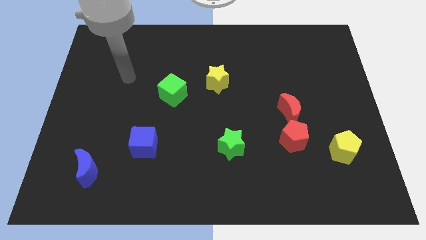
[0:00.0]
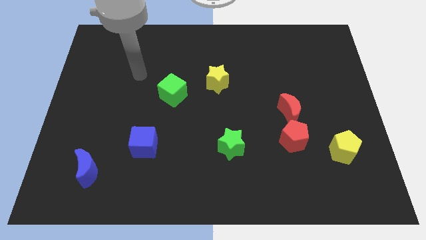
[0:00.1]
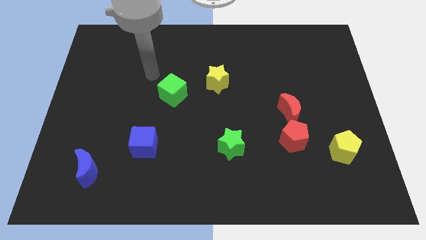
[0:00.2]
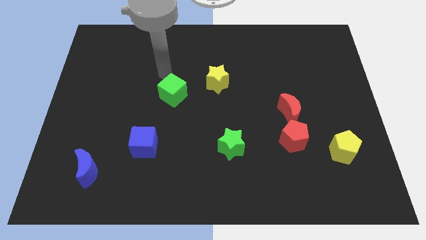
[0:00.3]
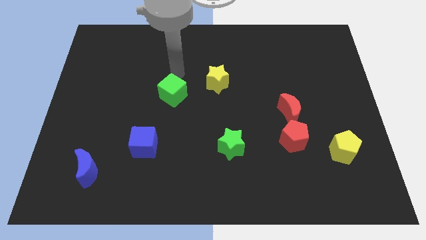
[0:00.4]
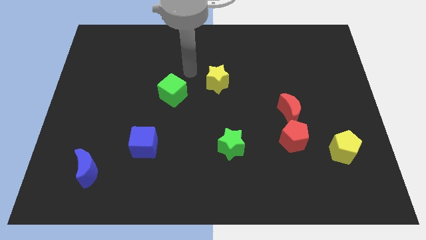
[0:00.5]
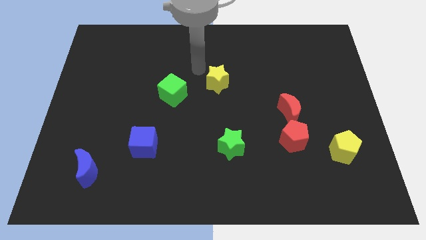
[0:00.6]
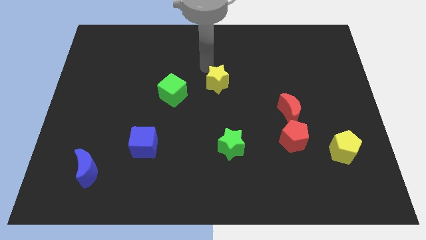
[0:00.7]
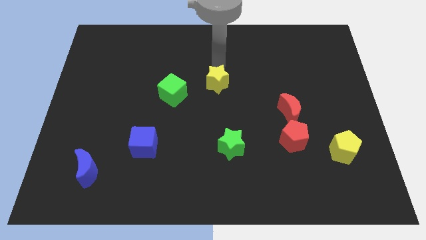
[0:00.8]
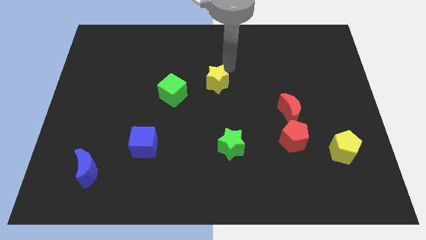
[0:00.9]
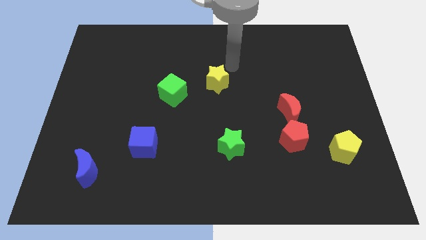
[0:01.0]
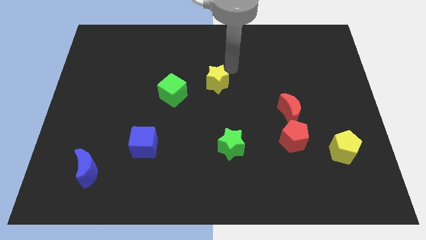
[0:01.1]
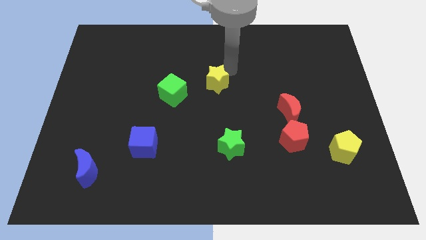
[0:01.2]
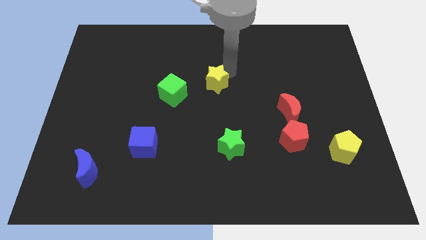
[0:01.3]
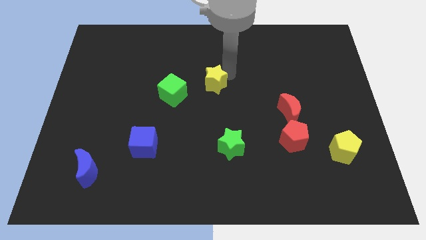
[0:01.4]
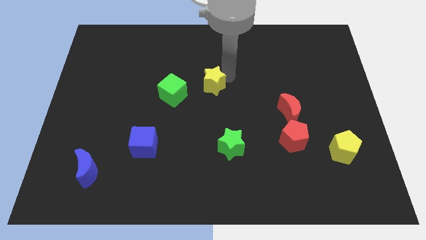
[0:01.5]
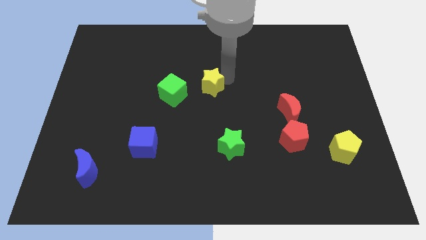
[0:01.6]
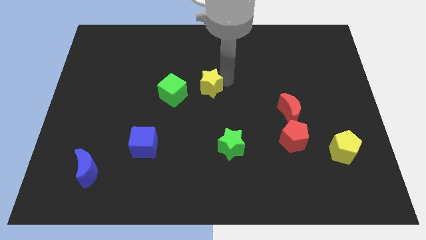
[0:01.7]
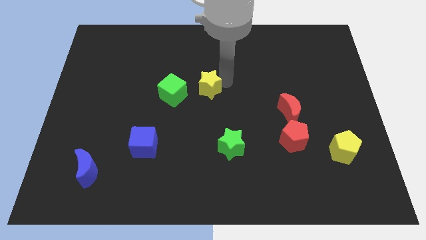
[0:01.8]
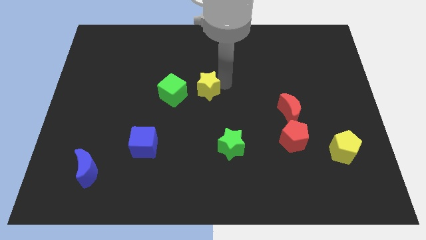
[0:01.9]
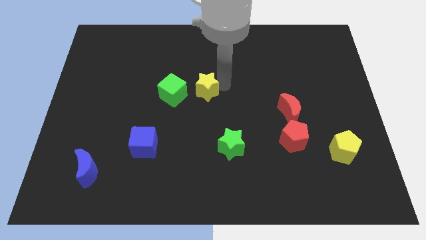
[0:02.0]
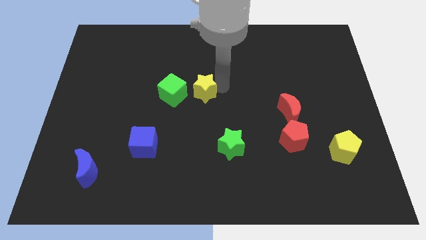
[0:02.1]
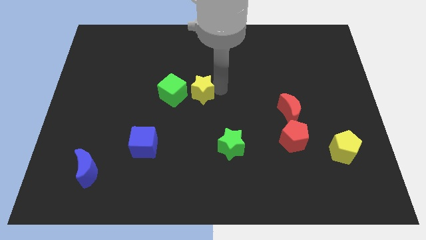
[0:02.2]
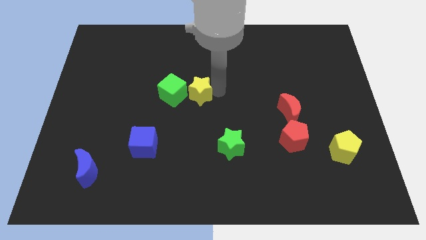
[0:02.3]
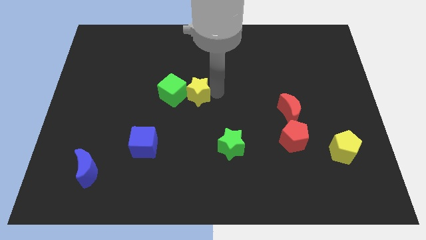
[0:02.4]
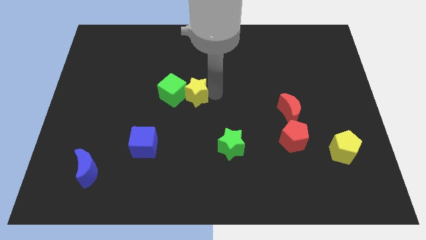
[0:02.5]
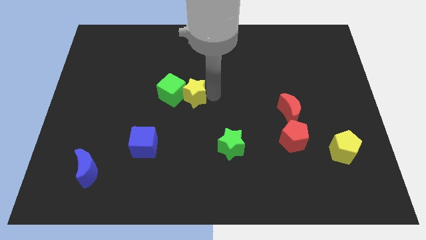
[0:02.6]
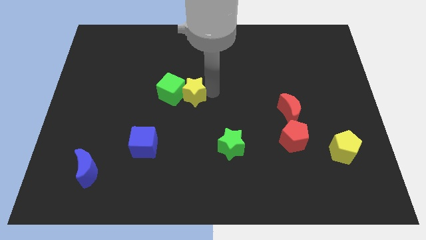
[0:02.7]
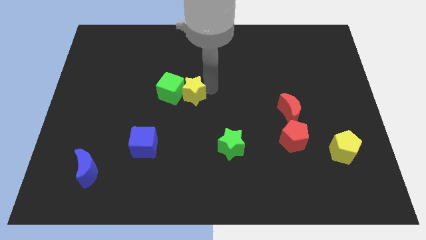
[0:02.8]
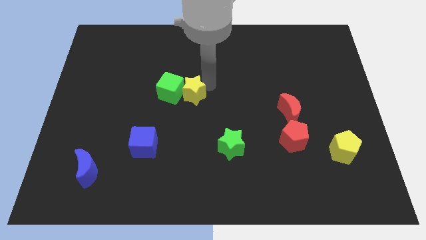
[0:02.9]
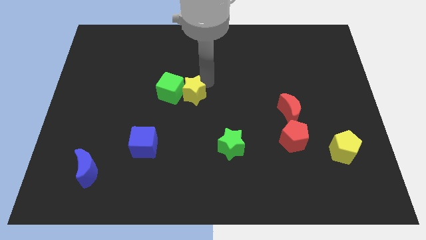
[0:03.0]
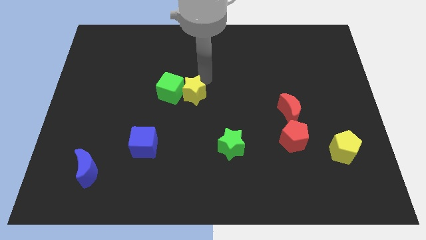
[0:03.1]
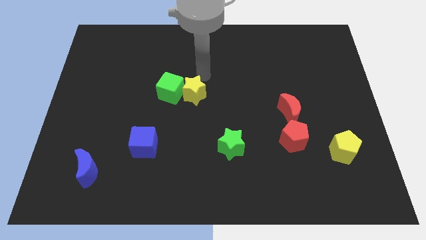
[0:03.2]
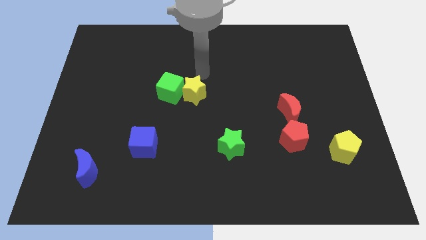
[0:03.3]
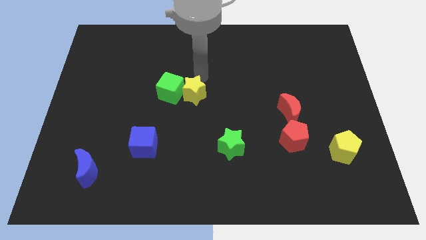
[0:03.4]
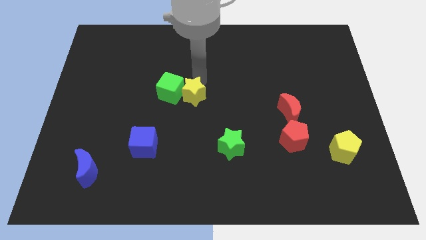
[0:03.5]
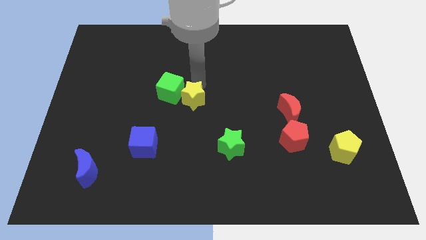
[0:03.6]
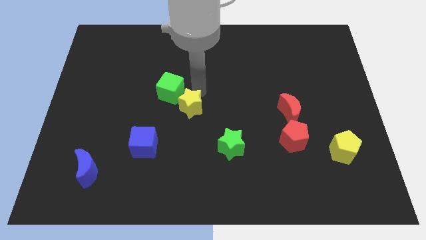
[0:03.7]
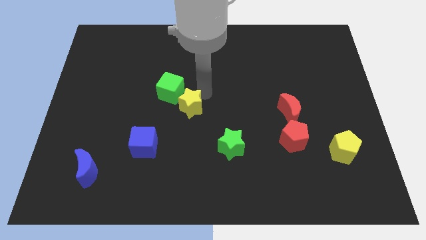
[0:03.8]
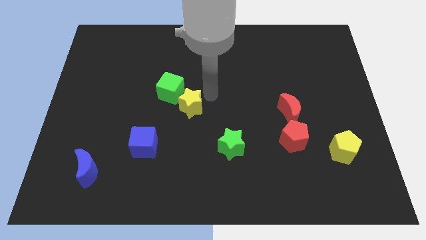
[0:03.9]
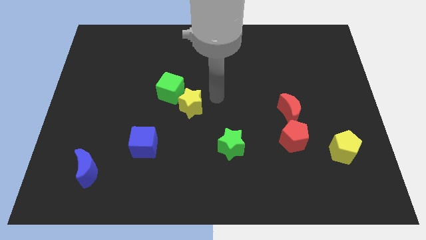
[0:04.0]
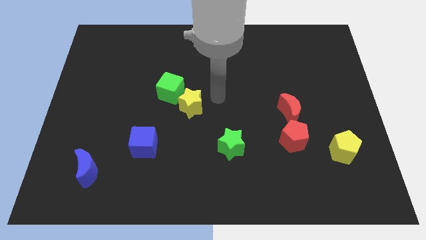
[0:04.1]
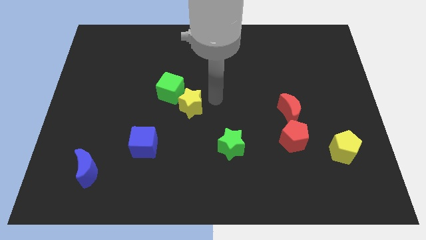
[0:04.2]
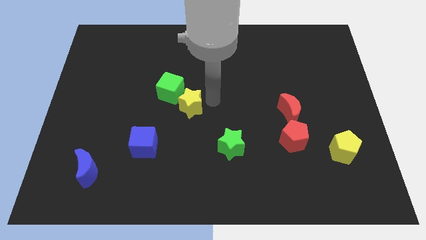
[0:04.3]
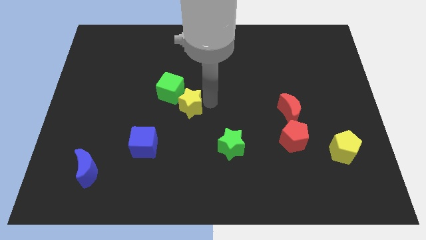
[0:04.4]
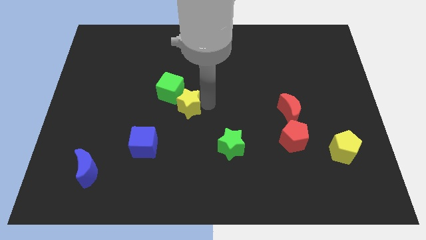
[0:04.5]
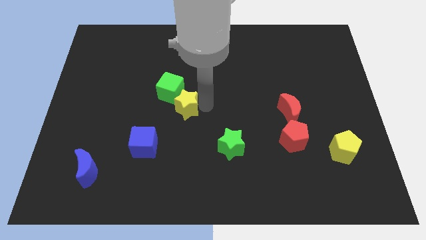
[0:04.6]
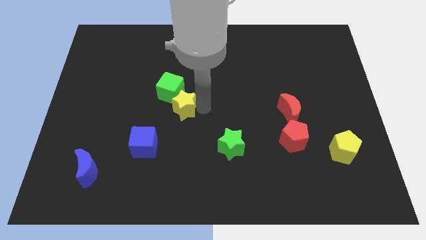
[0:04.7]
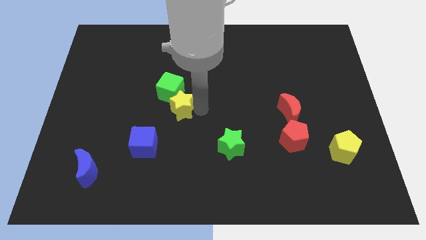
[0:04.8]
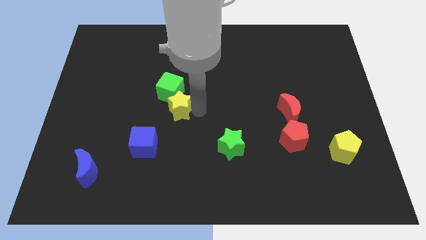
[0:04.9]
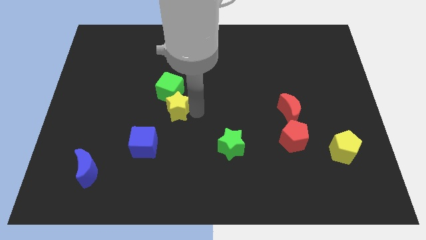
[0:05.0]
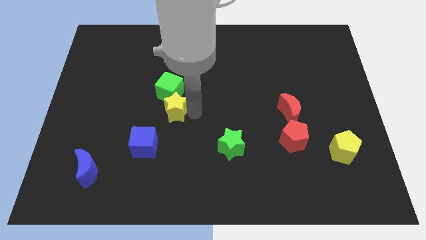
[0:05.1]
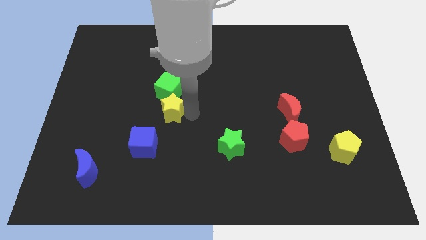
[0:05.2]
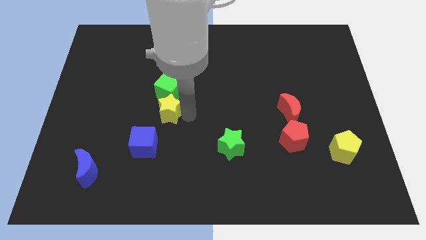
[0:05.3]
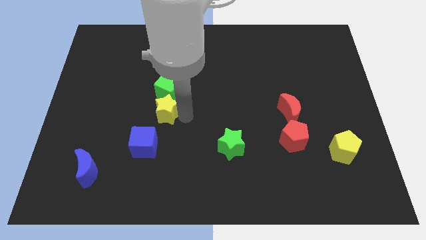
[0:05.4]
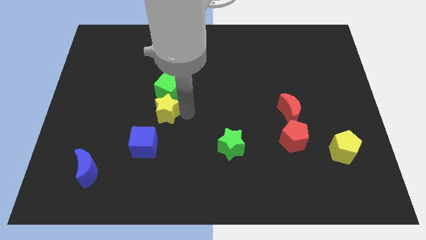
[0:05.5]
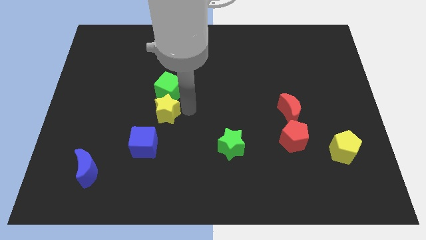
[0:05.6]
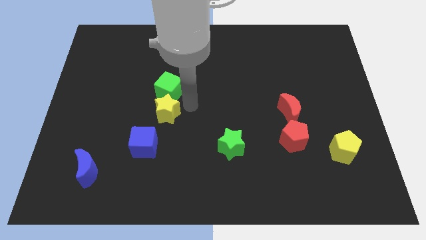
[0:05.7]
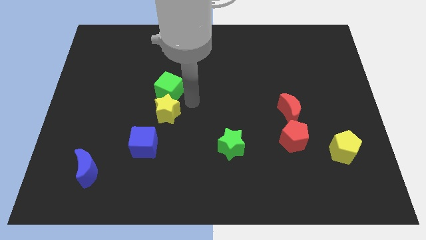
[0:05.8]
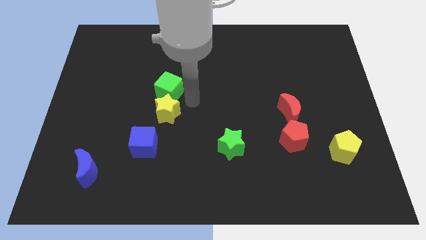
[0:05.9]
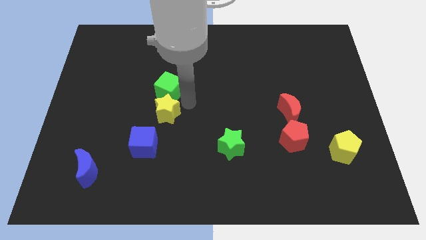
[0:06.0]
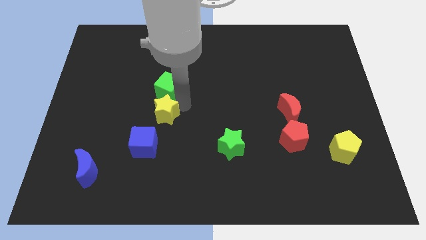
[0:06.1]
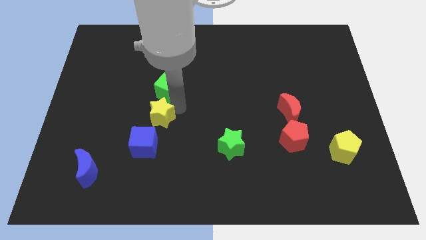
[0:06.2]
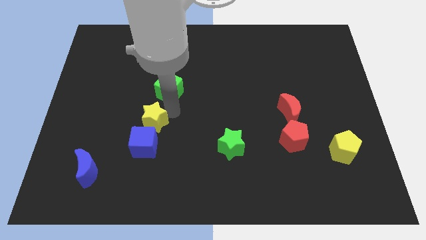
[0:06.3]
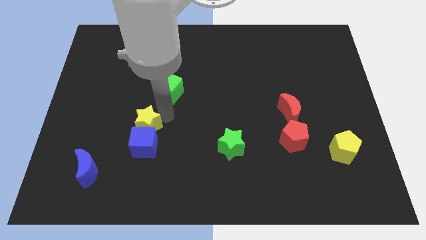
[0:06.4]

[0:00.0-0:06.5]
slide the yellow star down and to the left

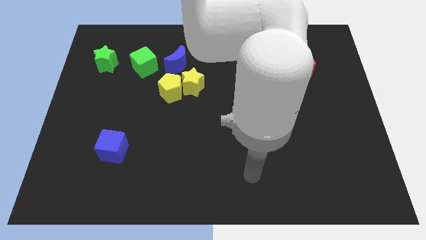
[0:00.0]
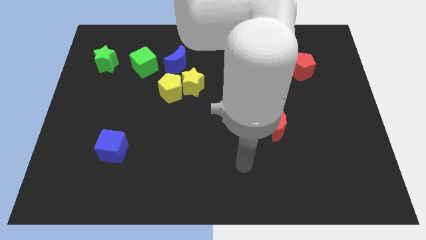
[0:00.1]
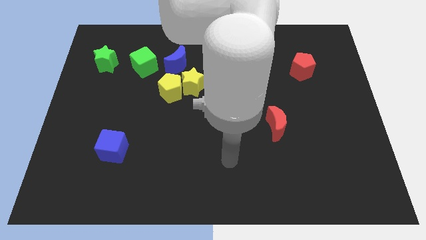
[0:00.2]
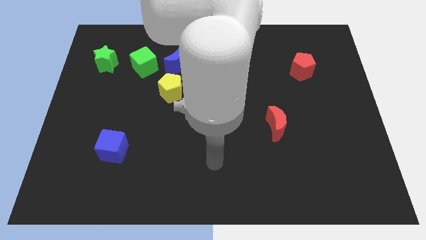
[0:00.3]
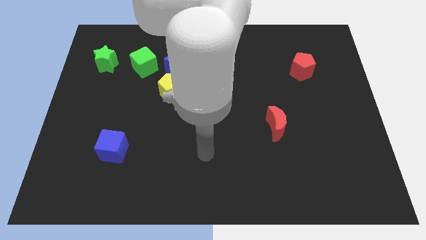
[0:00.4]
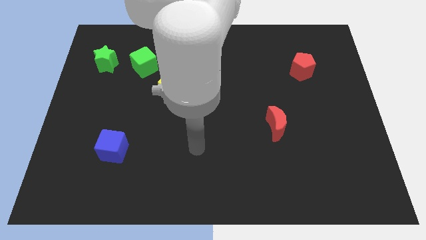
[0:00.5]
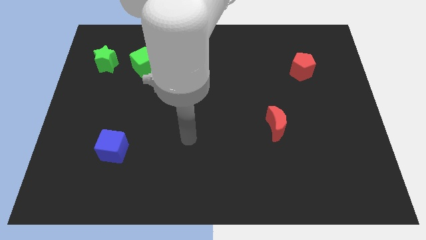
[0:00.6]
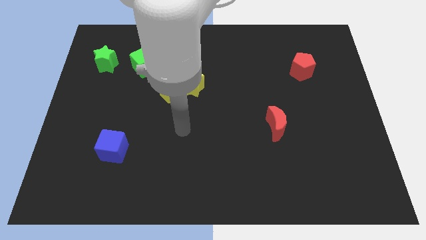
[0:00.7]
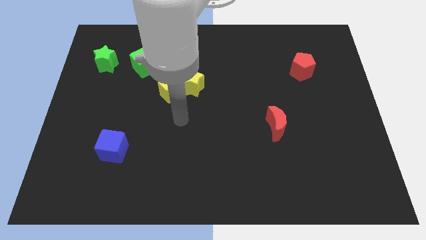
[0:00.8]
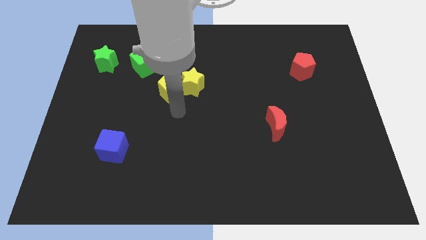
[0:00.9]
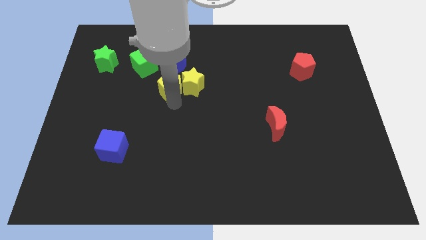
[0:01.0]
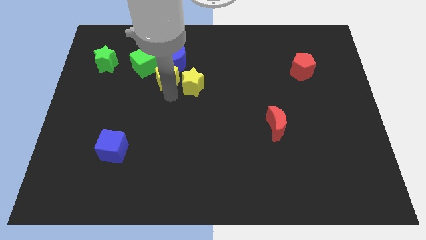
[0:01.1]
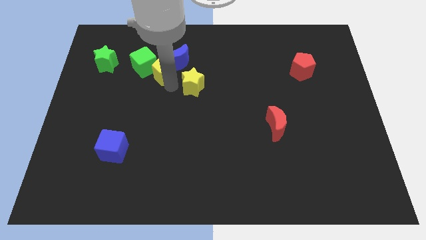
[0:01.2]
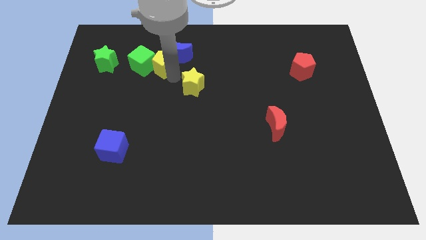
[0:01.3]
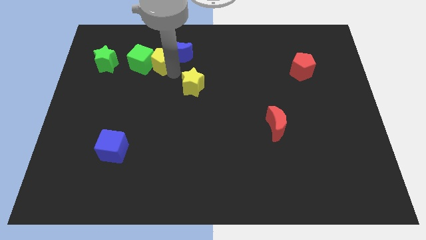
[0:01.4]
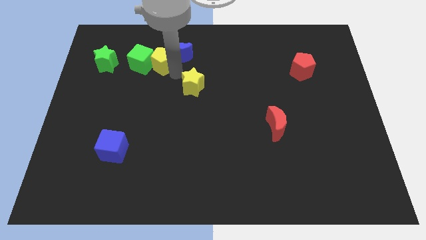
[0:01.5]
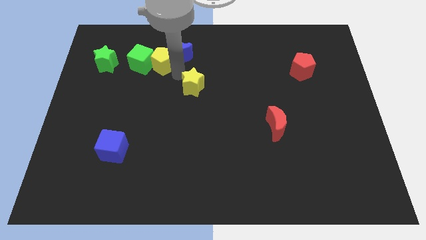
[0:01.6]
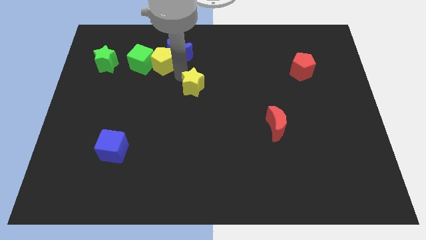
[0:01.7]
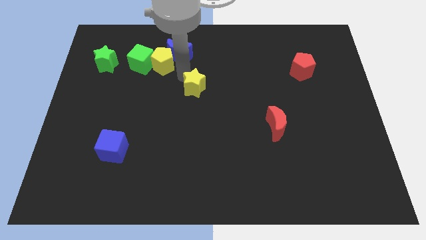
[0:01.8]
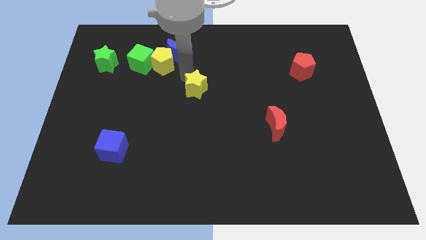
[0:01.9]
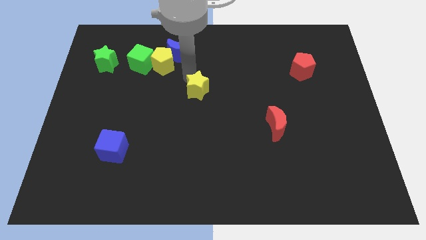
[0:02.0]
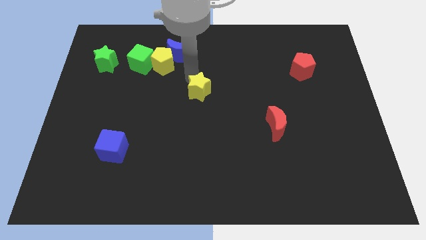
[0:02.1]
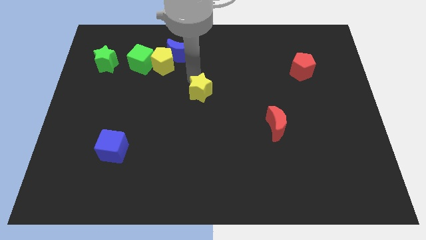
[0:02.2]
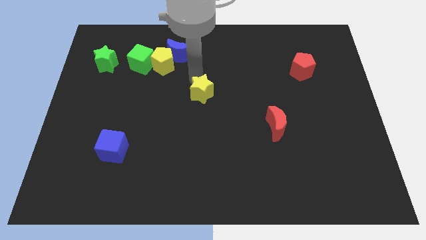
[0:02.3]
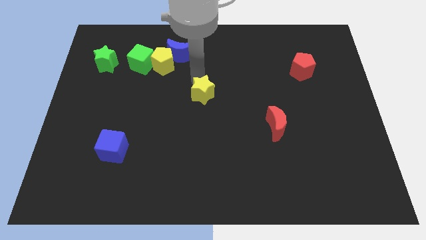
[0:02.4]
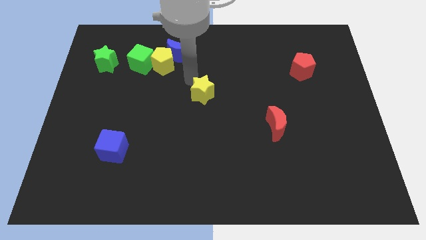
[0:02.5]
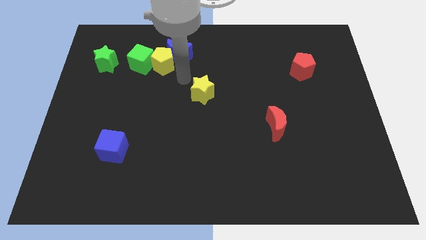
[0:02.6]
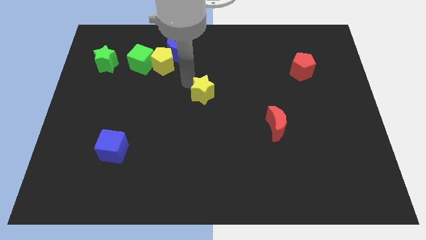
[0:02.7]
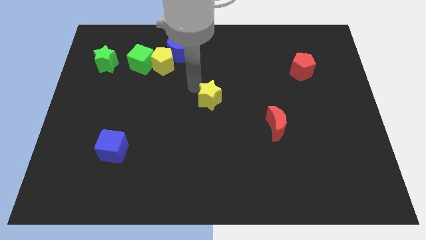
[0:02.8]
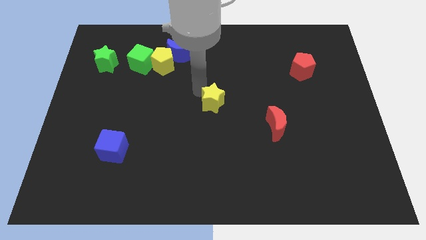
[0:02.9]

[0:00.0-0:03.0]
slide the yellow star a little bit downwards and to the right
